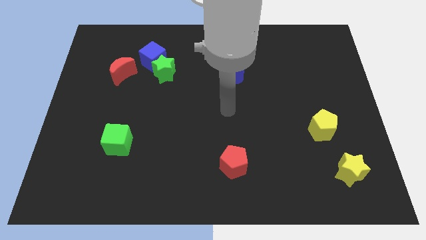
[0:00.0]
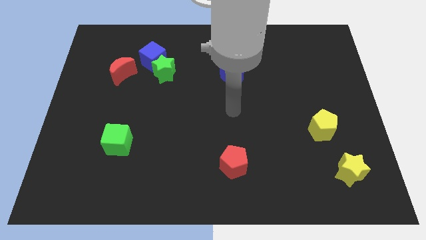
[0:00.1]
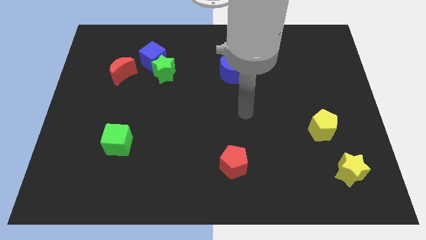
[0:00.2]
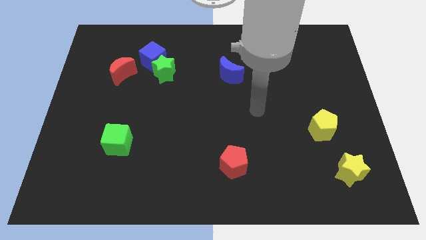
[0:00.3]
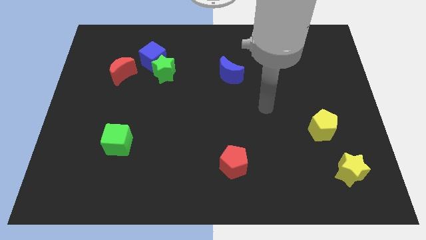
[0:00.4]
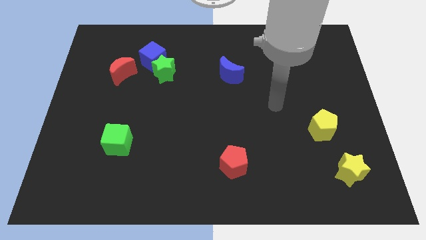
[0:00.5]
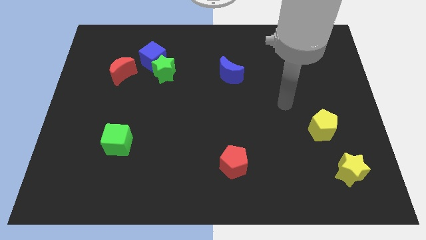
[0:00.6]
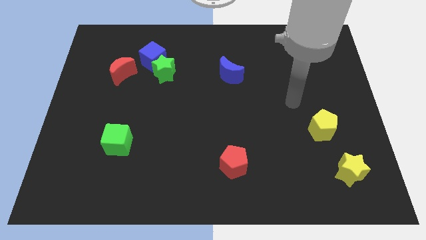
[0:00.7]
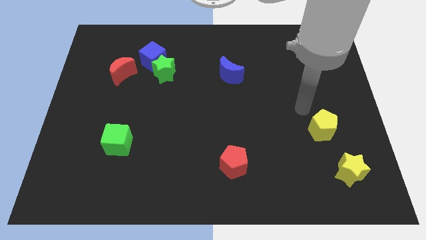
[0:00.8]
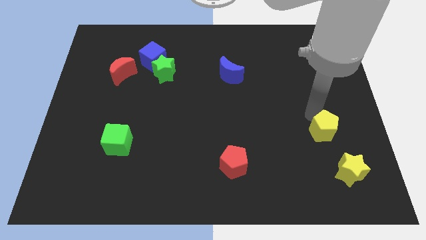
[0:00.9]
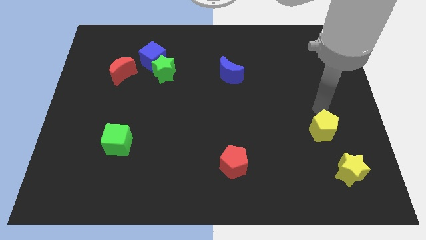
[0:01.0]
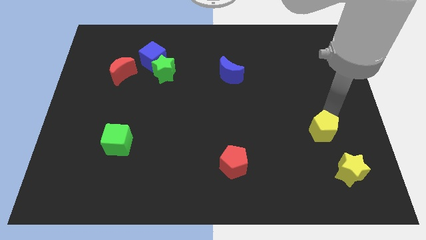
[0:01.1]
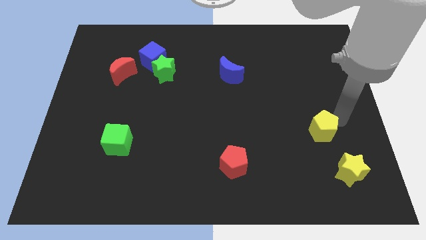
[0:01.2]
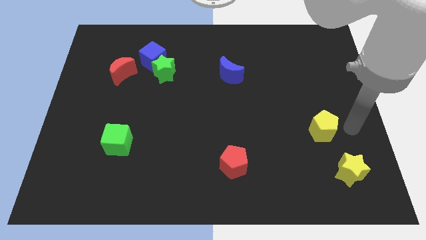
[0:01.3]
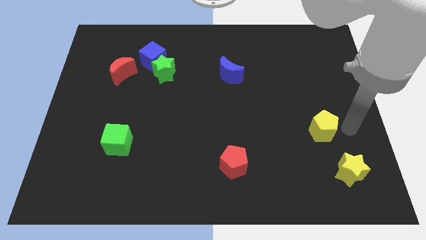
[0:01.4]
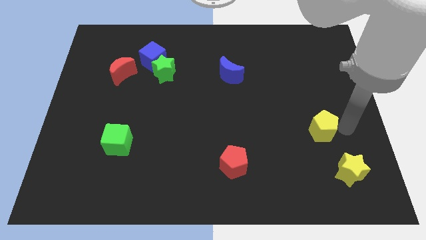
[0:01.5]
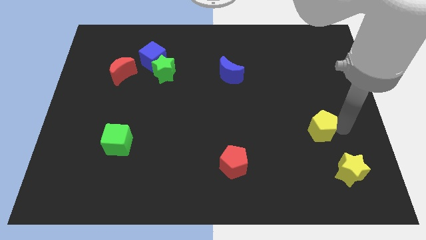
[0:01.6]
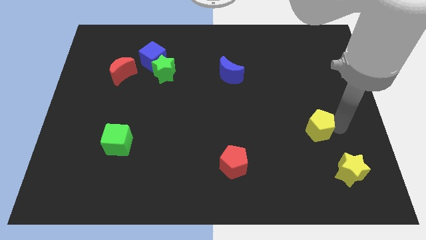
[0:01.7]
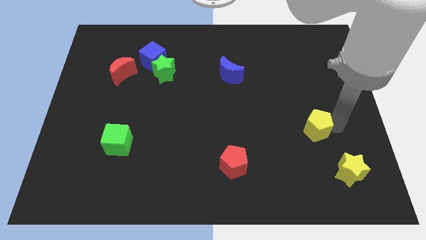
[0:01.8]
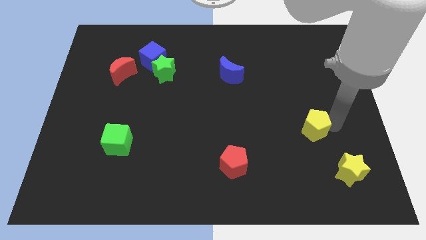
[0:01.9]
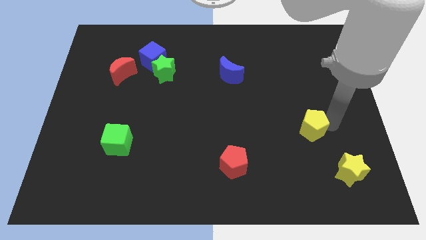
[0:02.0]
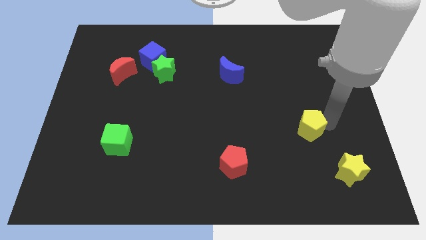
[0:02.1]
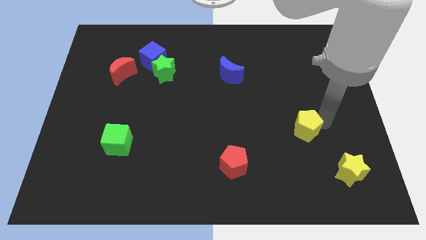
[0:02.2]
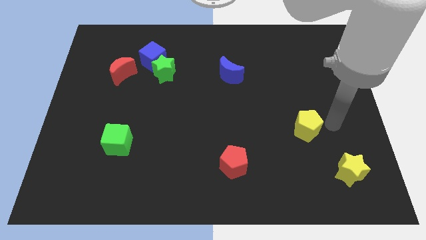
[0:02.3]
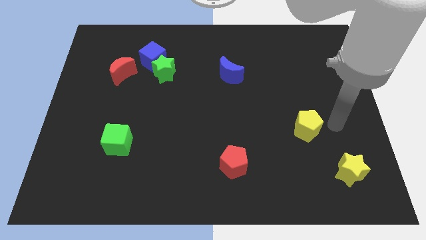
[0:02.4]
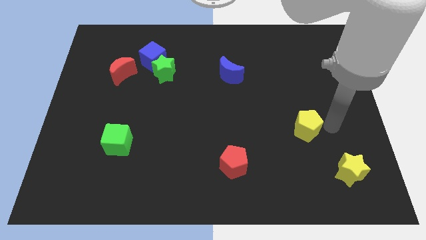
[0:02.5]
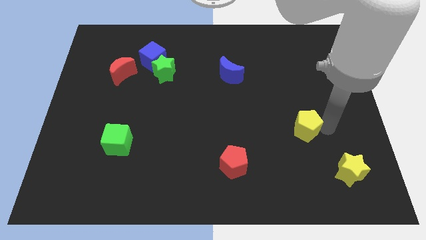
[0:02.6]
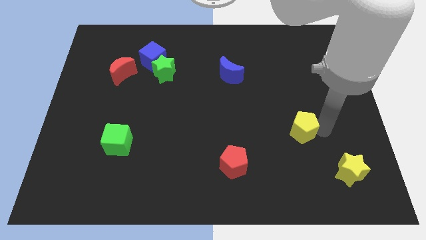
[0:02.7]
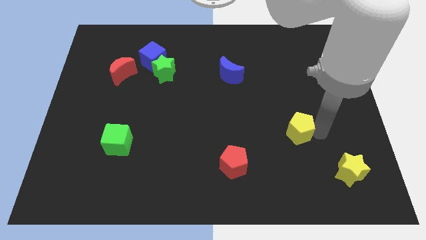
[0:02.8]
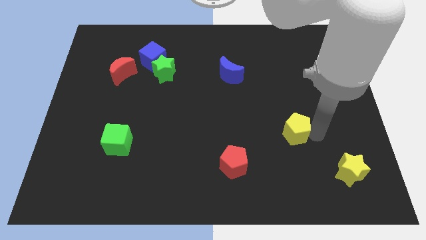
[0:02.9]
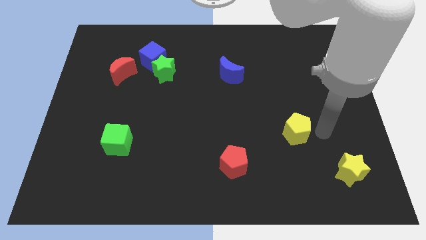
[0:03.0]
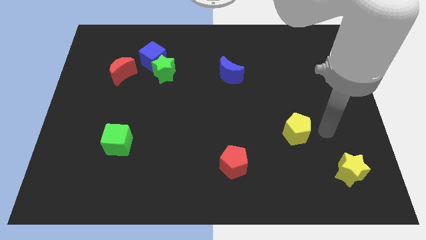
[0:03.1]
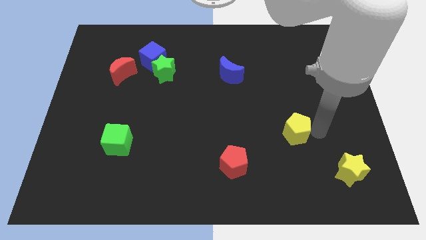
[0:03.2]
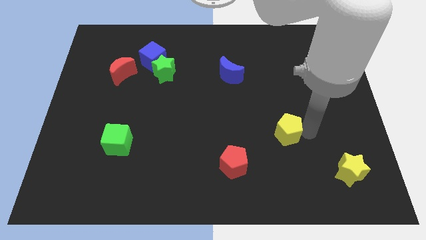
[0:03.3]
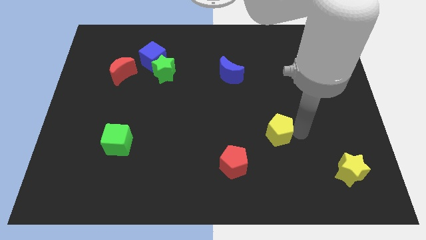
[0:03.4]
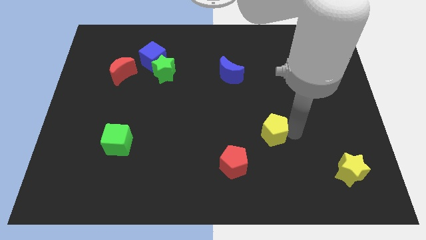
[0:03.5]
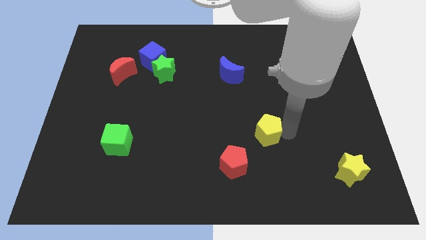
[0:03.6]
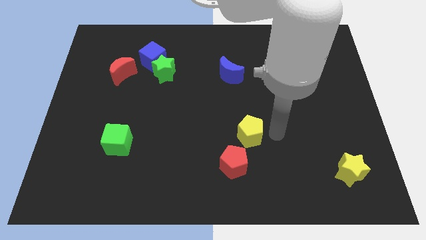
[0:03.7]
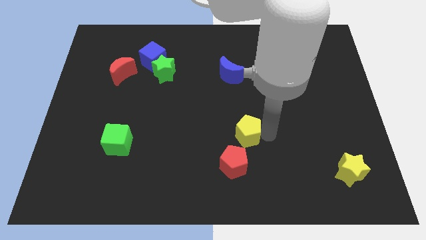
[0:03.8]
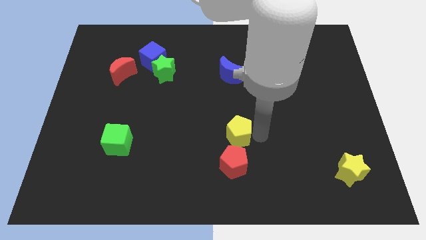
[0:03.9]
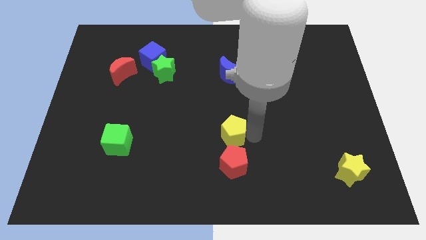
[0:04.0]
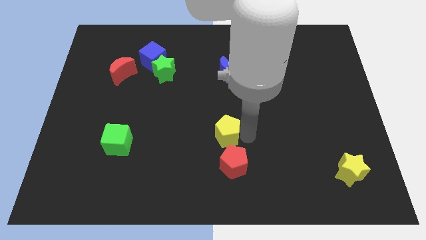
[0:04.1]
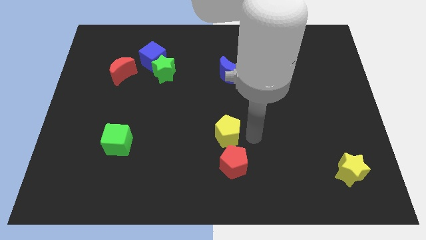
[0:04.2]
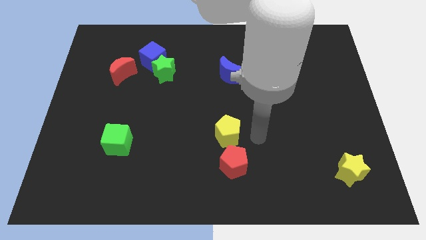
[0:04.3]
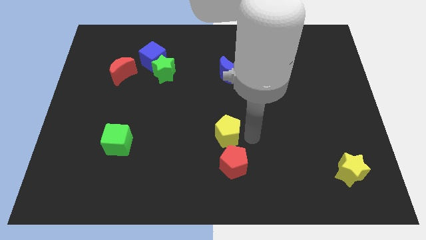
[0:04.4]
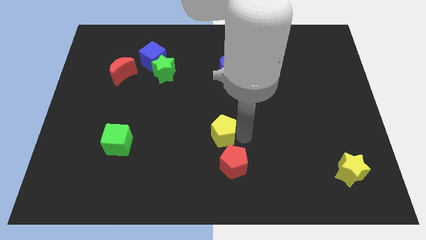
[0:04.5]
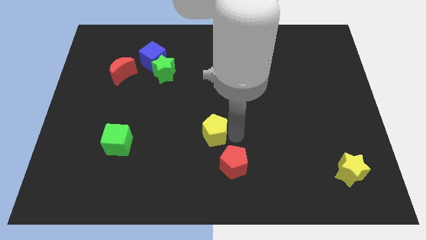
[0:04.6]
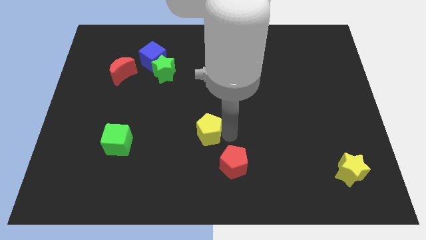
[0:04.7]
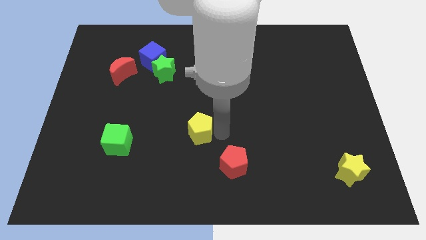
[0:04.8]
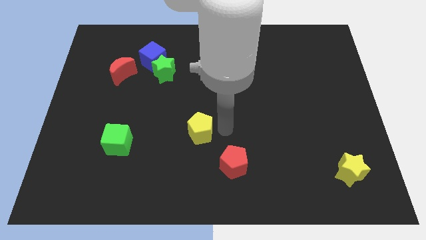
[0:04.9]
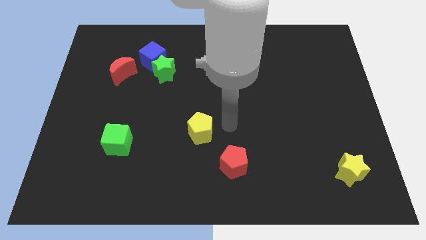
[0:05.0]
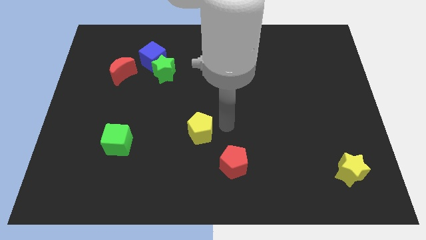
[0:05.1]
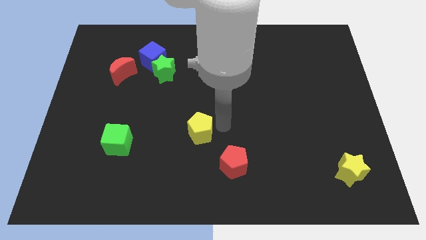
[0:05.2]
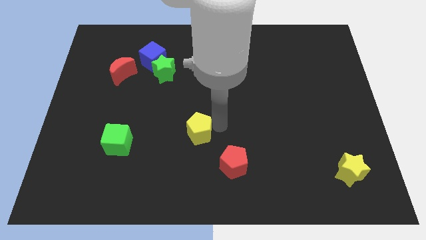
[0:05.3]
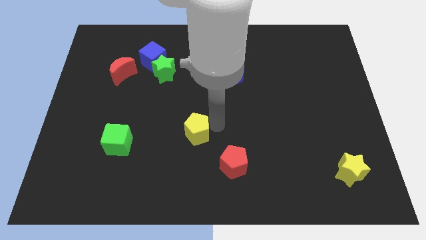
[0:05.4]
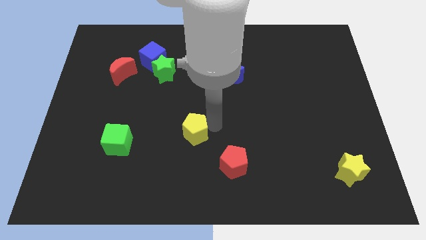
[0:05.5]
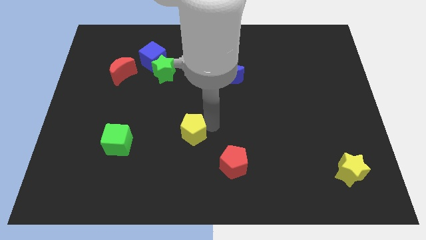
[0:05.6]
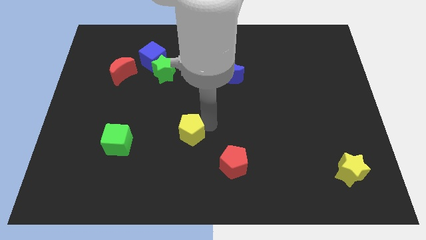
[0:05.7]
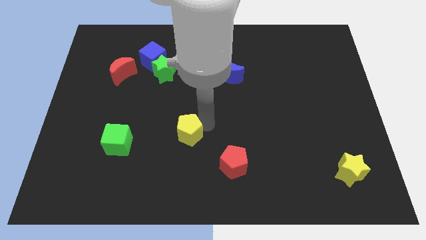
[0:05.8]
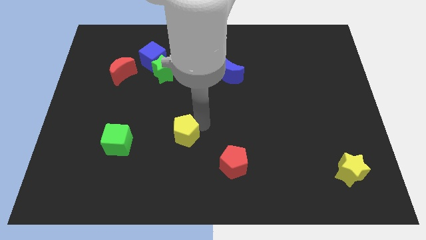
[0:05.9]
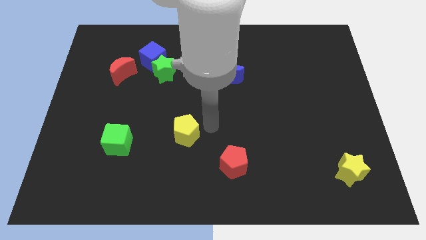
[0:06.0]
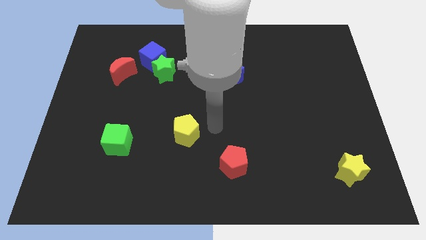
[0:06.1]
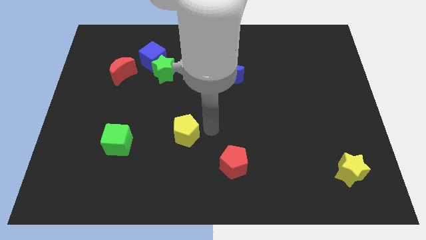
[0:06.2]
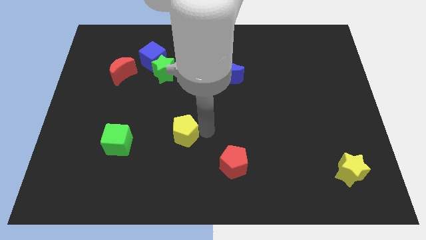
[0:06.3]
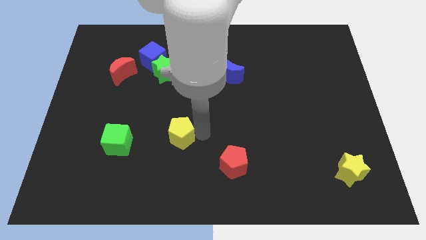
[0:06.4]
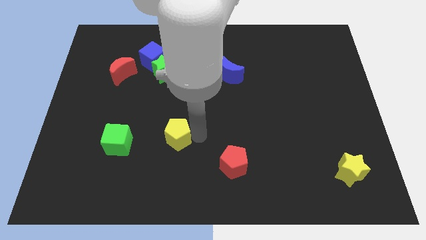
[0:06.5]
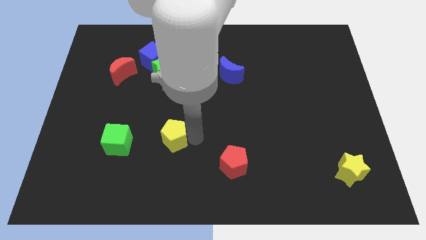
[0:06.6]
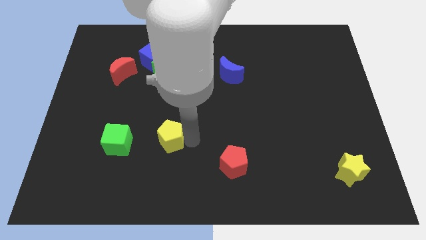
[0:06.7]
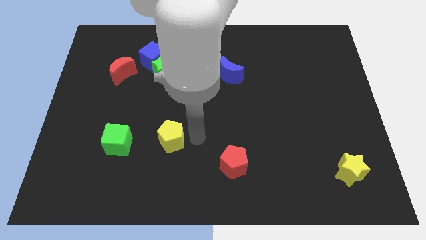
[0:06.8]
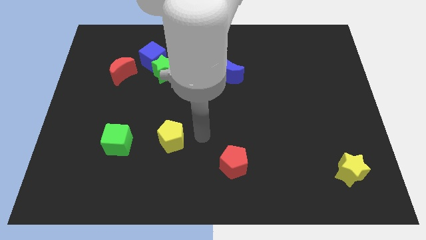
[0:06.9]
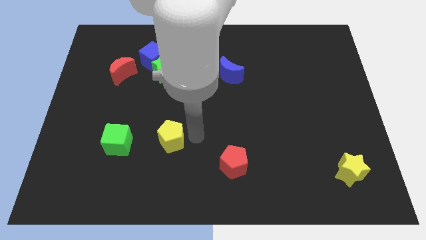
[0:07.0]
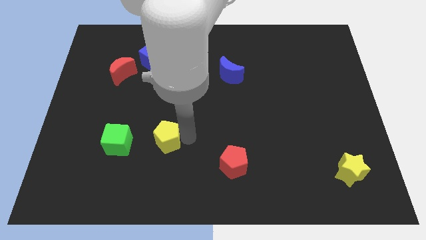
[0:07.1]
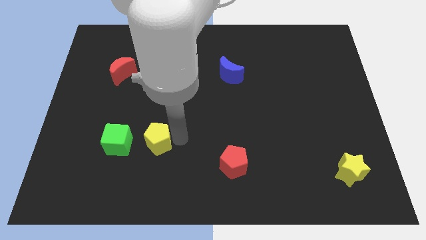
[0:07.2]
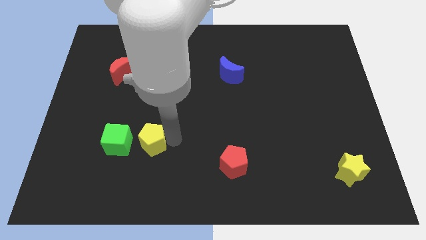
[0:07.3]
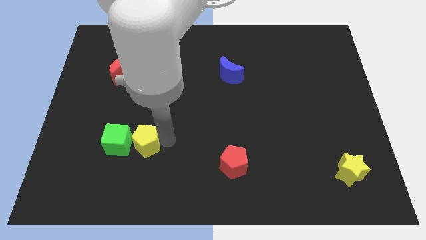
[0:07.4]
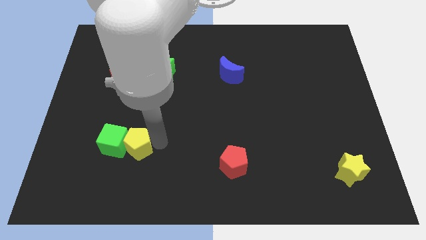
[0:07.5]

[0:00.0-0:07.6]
put the yellow pentagon to the green cube
